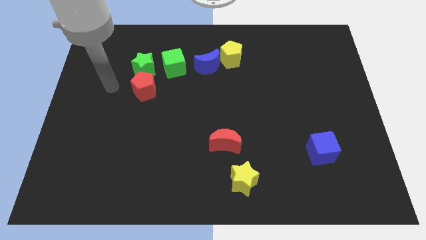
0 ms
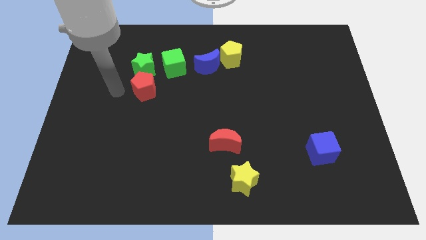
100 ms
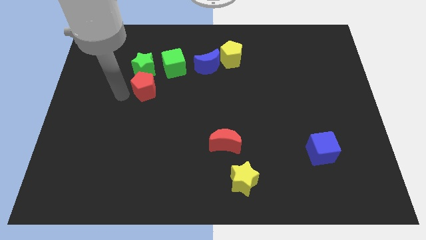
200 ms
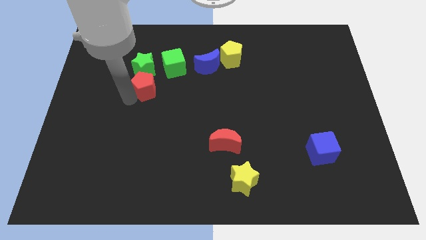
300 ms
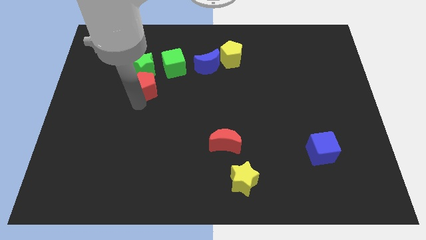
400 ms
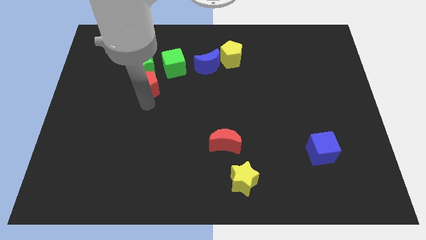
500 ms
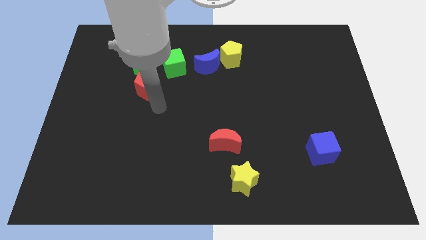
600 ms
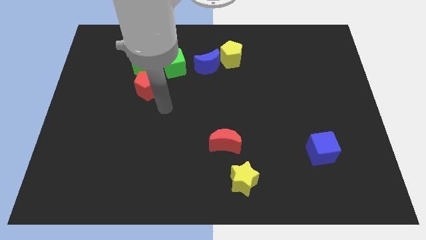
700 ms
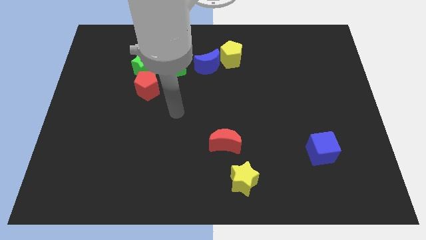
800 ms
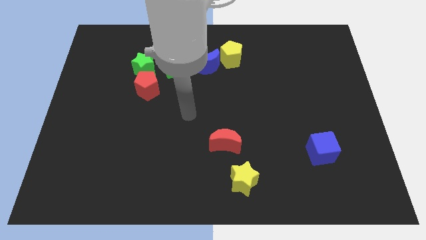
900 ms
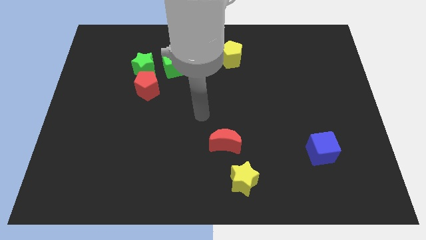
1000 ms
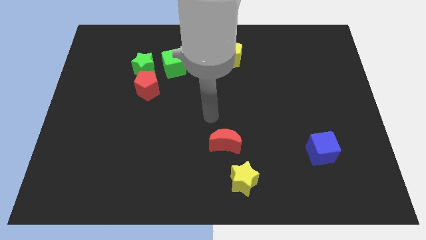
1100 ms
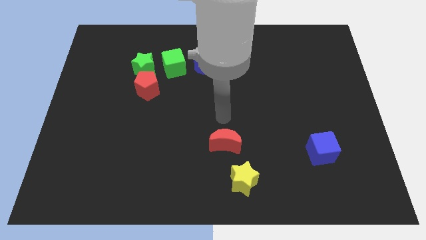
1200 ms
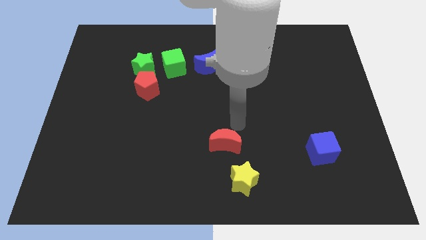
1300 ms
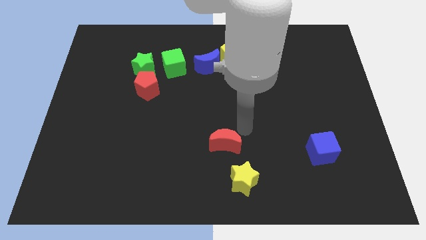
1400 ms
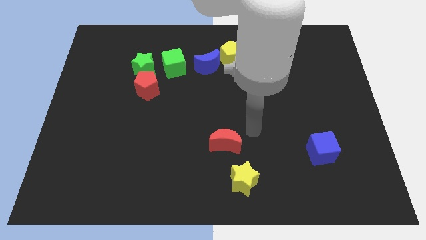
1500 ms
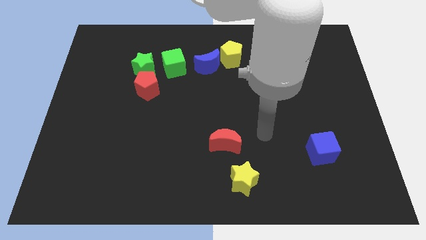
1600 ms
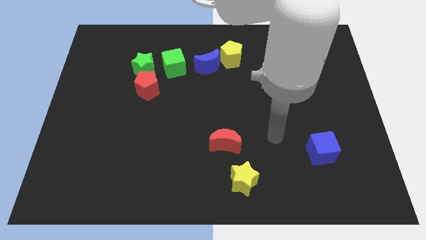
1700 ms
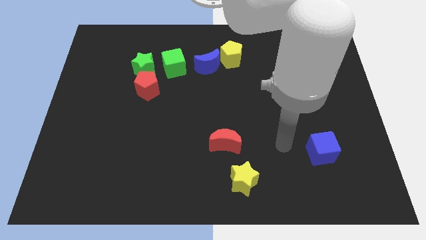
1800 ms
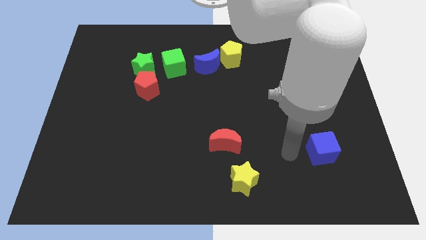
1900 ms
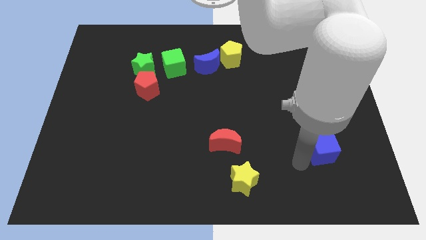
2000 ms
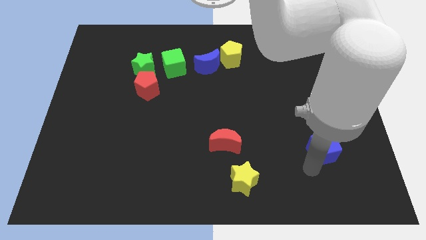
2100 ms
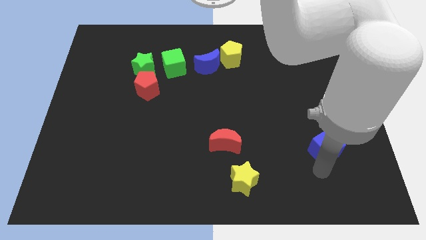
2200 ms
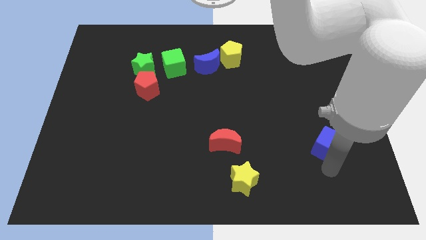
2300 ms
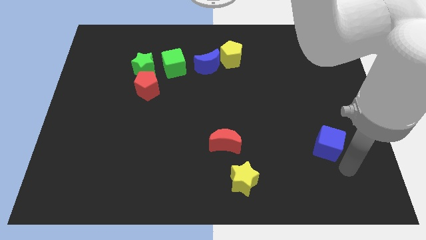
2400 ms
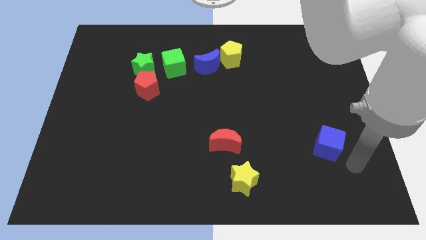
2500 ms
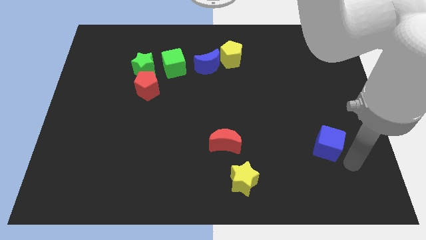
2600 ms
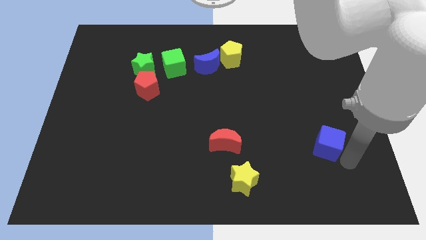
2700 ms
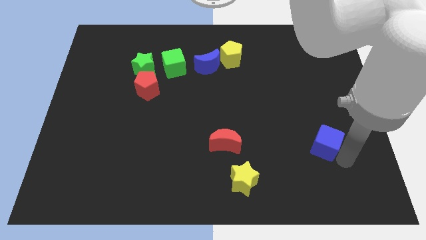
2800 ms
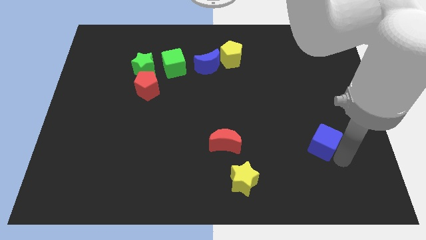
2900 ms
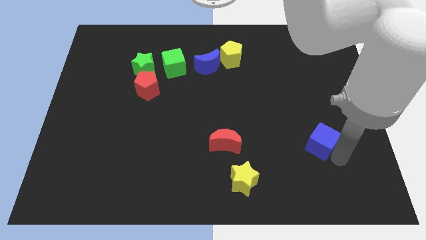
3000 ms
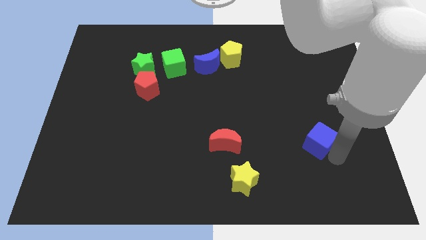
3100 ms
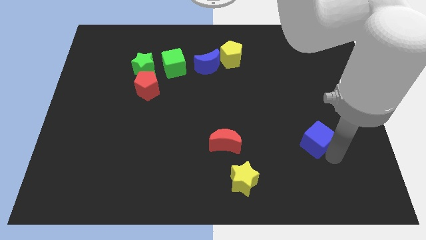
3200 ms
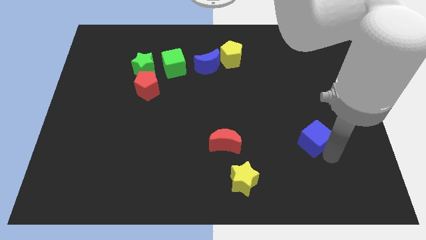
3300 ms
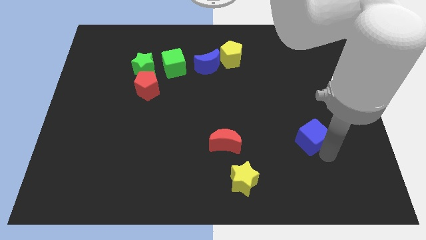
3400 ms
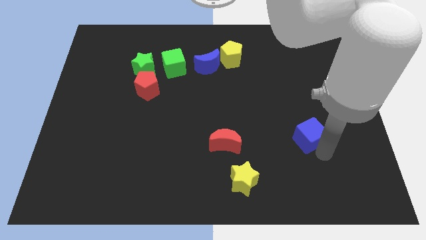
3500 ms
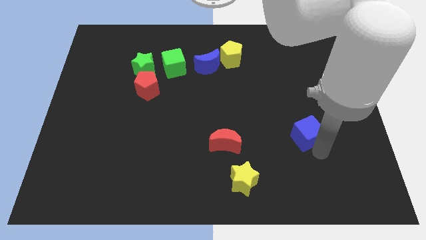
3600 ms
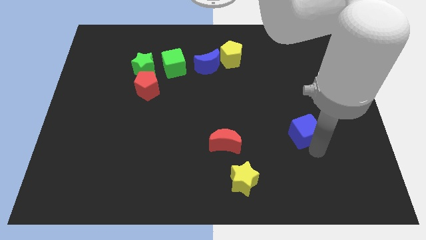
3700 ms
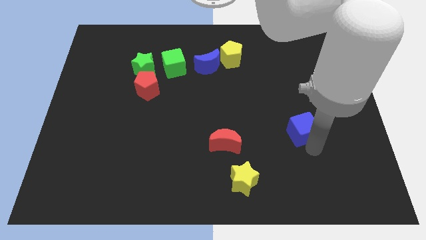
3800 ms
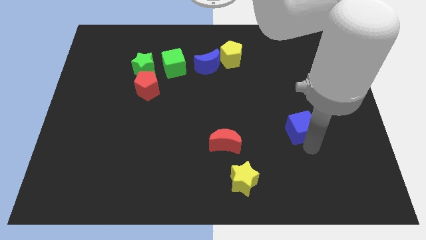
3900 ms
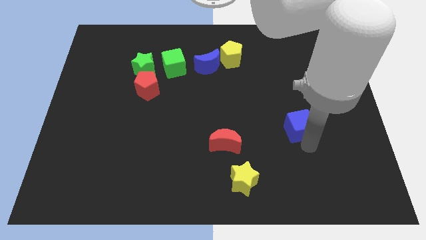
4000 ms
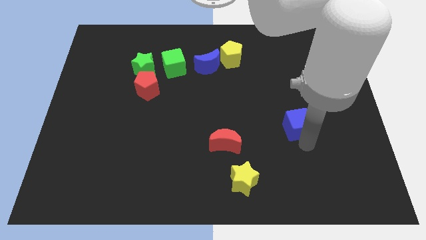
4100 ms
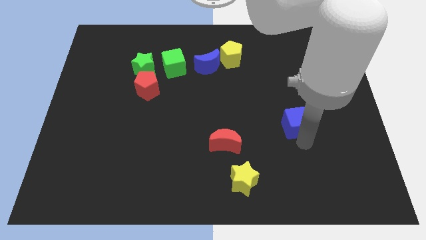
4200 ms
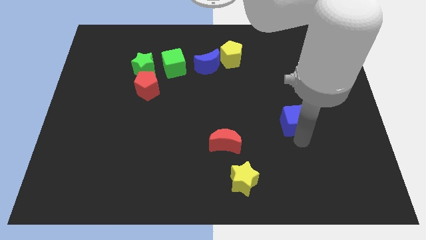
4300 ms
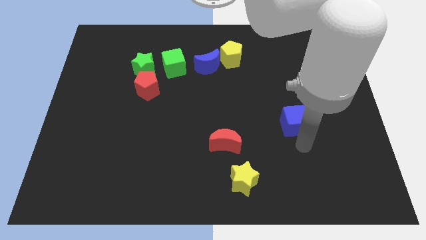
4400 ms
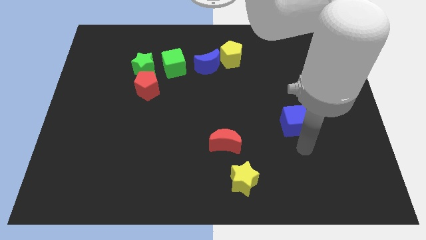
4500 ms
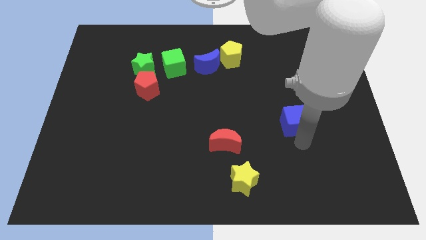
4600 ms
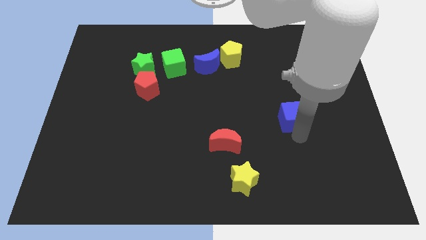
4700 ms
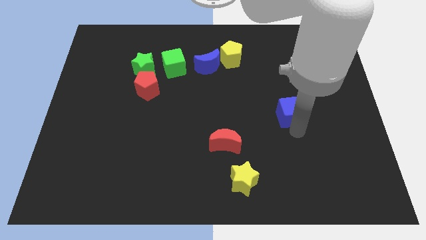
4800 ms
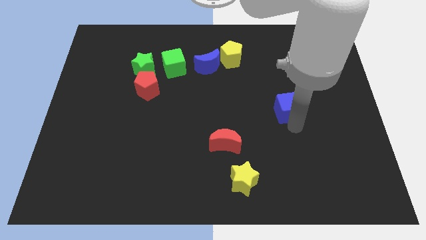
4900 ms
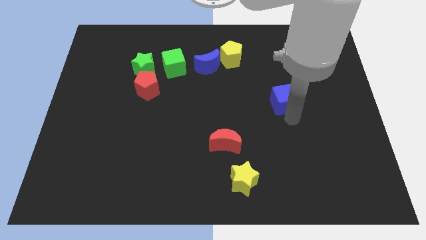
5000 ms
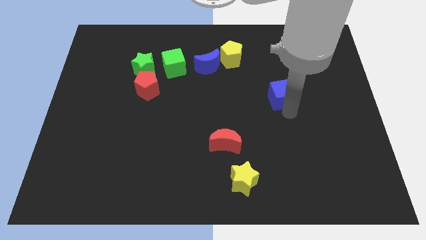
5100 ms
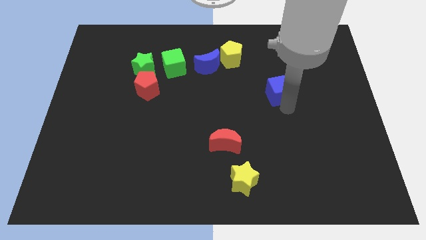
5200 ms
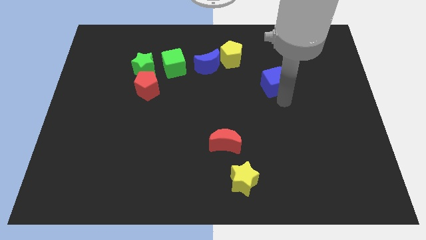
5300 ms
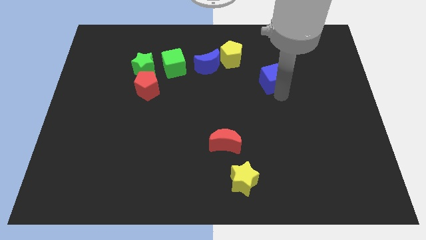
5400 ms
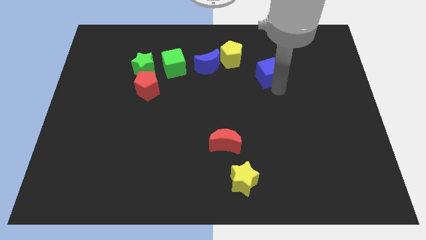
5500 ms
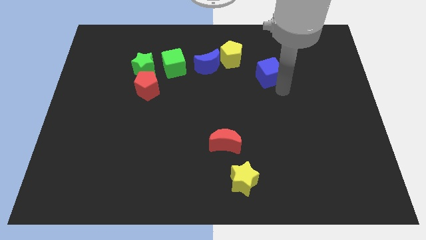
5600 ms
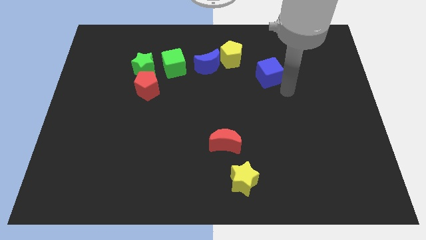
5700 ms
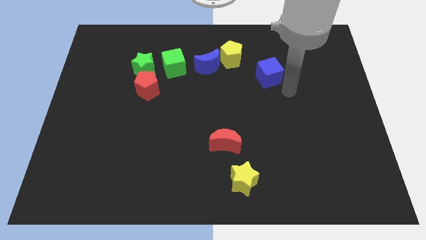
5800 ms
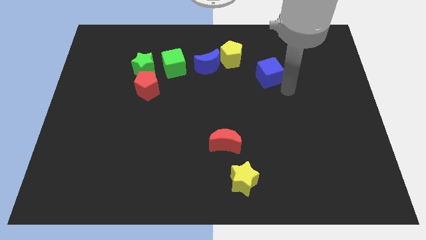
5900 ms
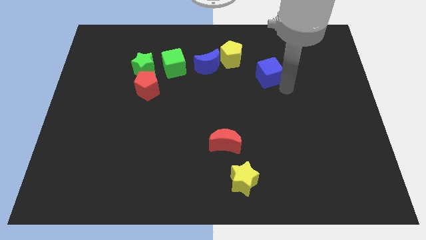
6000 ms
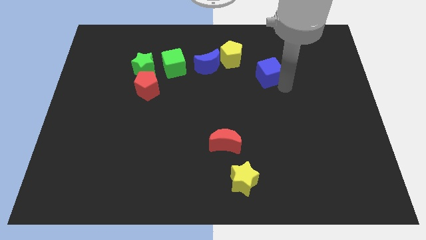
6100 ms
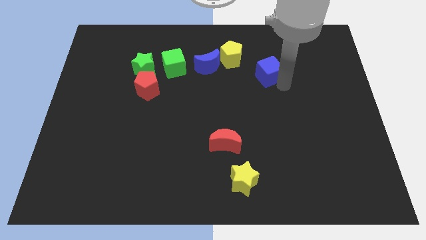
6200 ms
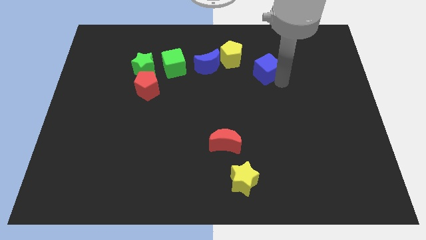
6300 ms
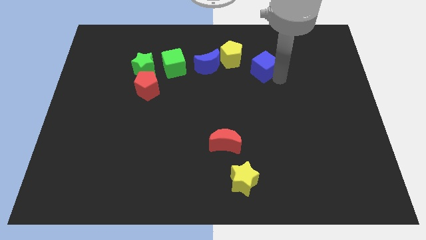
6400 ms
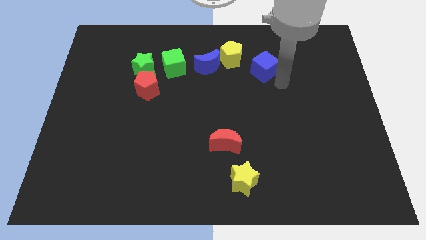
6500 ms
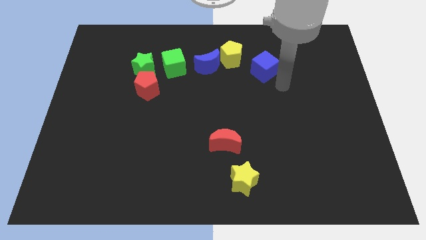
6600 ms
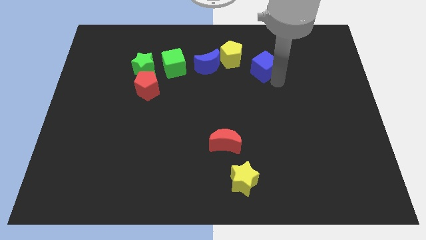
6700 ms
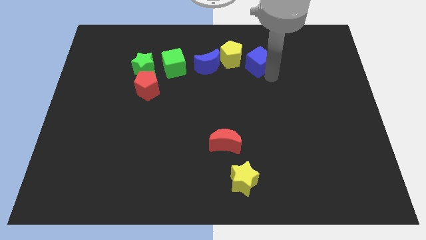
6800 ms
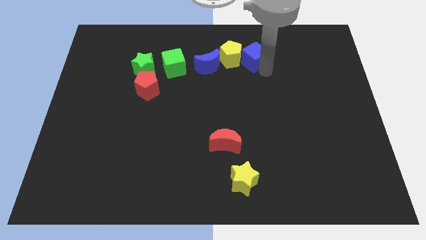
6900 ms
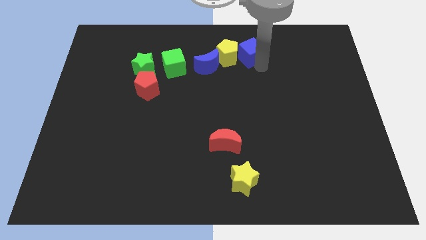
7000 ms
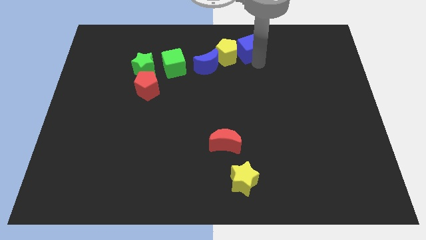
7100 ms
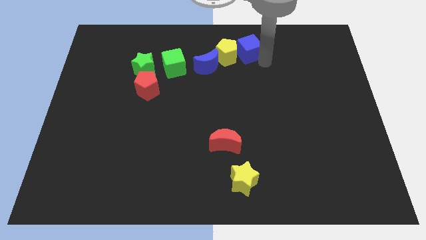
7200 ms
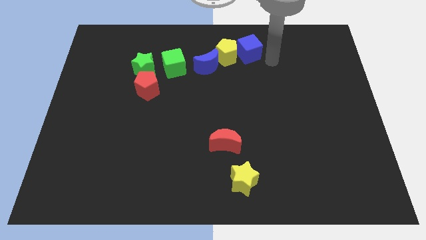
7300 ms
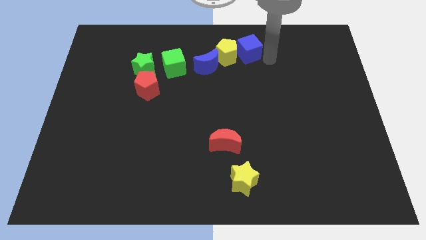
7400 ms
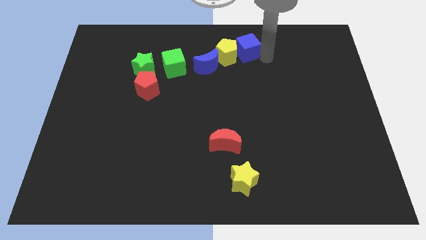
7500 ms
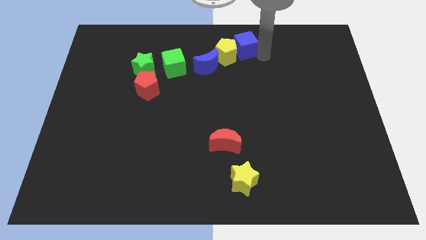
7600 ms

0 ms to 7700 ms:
push the blue cube to the top
